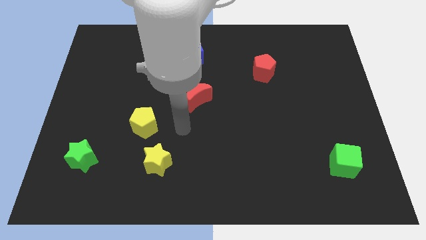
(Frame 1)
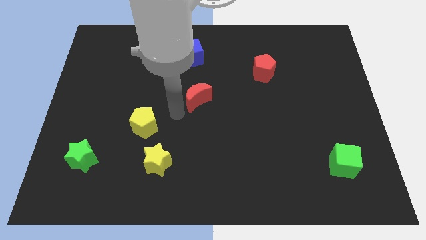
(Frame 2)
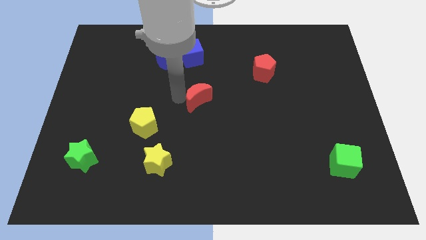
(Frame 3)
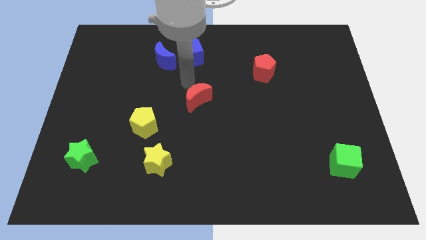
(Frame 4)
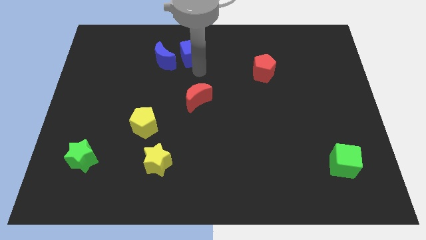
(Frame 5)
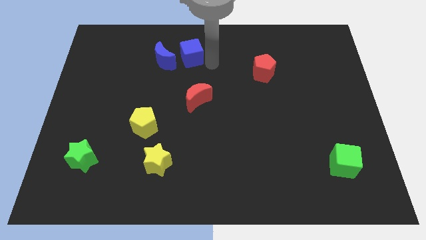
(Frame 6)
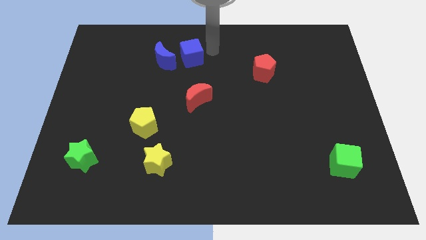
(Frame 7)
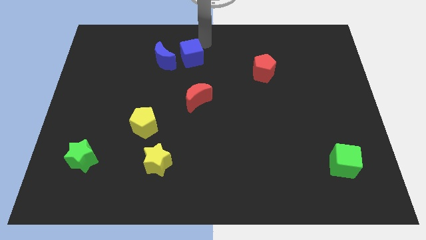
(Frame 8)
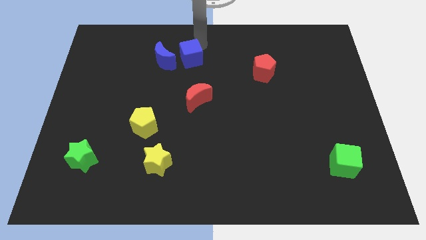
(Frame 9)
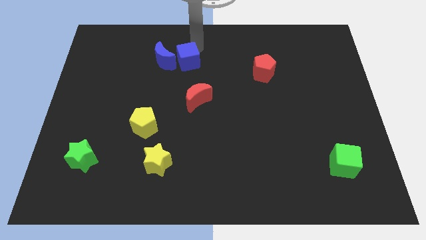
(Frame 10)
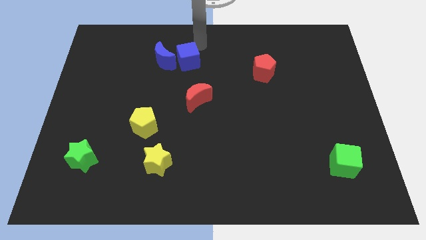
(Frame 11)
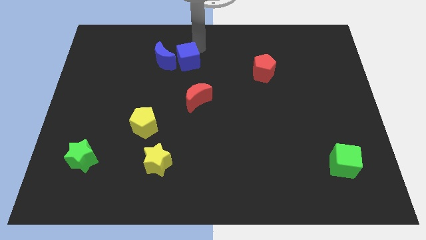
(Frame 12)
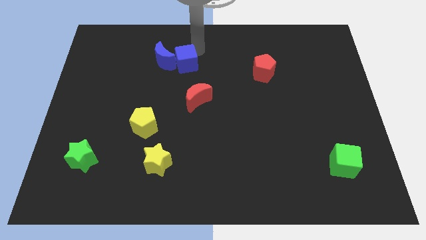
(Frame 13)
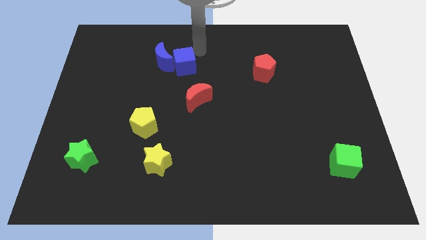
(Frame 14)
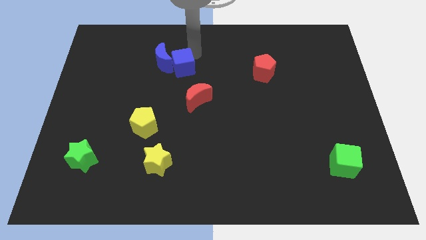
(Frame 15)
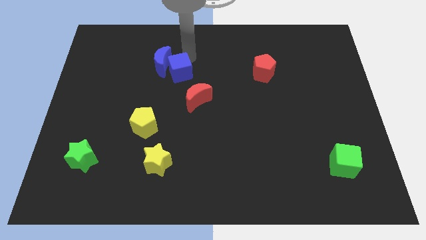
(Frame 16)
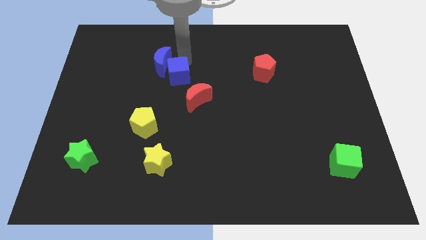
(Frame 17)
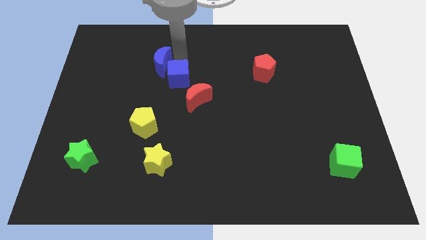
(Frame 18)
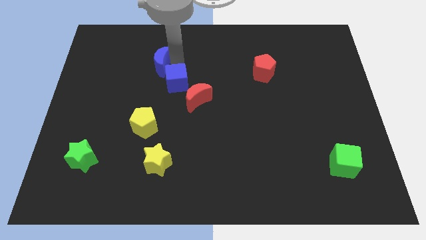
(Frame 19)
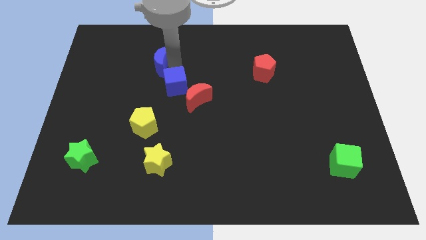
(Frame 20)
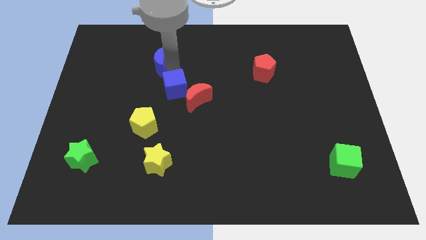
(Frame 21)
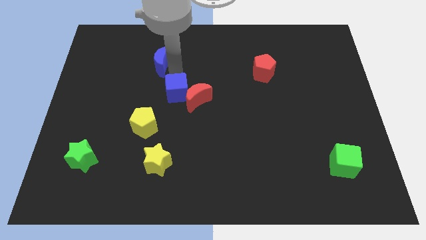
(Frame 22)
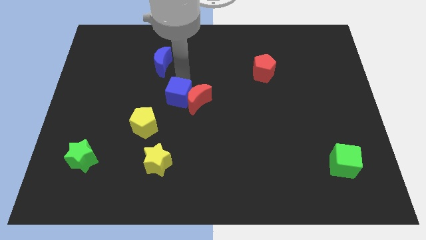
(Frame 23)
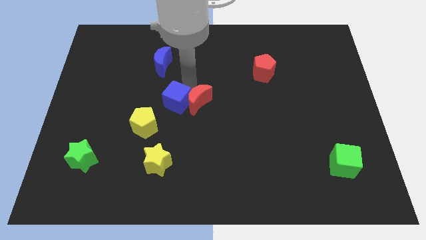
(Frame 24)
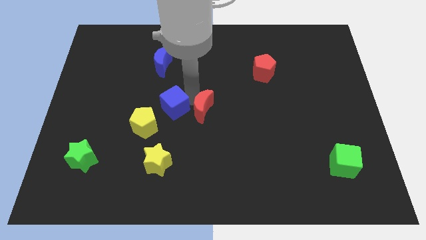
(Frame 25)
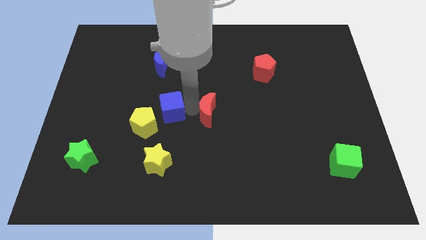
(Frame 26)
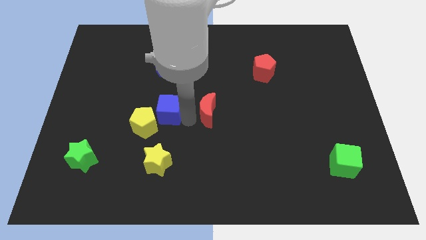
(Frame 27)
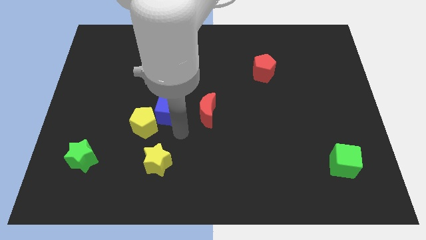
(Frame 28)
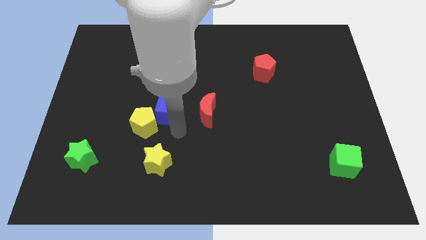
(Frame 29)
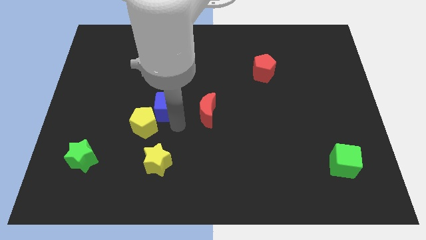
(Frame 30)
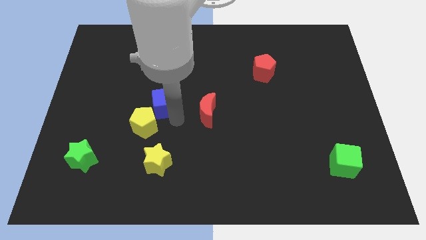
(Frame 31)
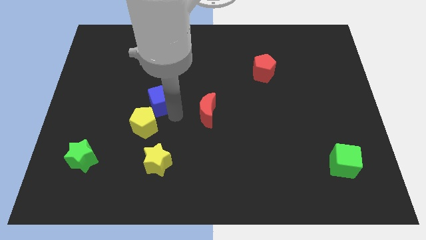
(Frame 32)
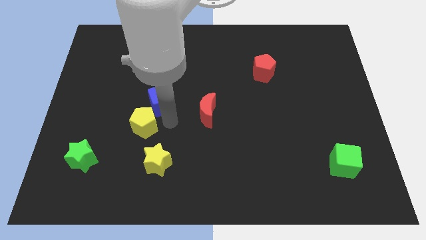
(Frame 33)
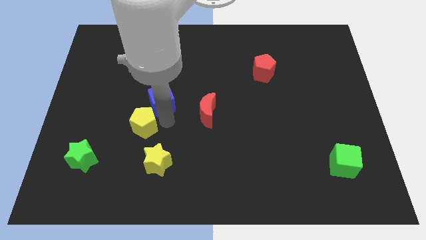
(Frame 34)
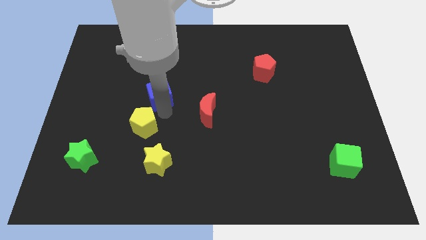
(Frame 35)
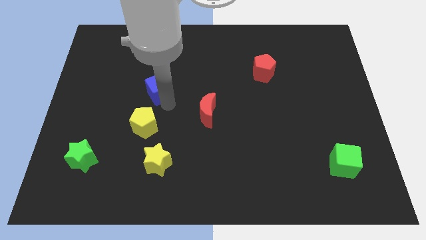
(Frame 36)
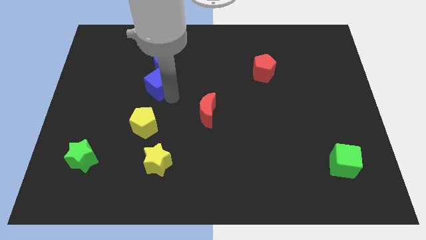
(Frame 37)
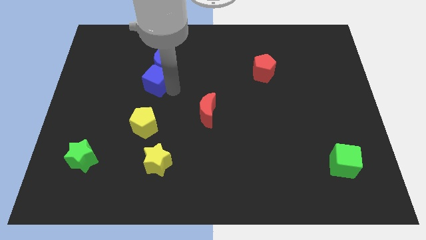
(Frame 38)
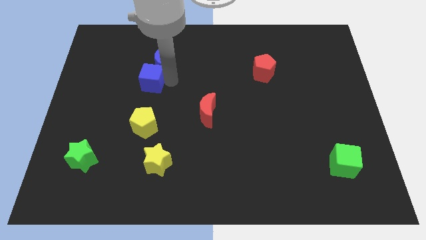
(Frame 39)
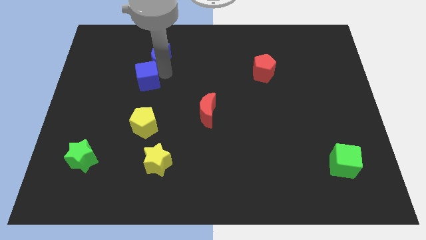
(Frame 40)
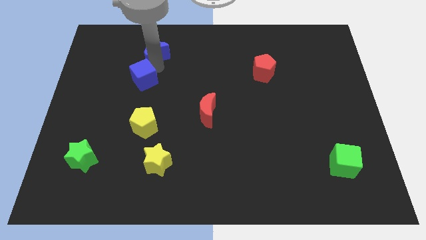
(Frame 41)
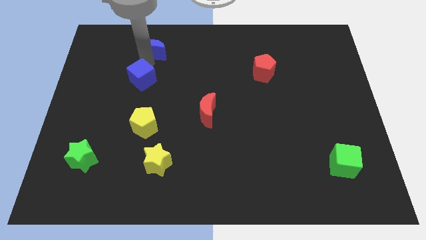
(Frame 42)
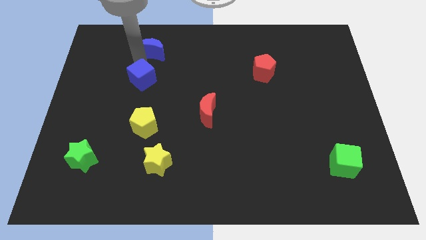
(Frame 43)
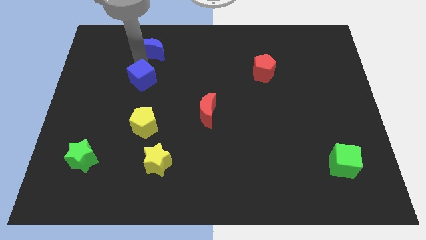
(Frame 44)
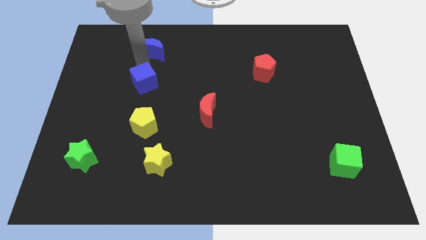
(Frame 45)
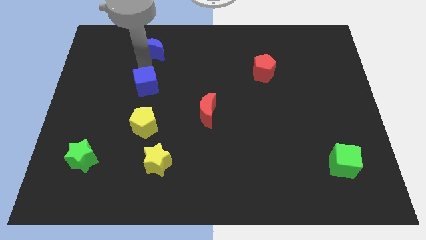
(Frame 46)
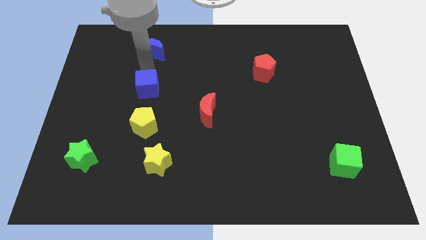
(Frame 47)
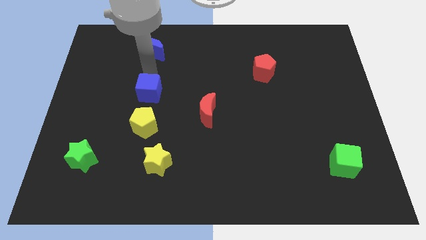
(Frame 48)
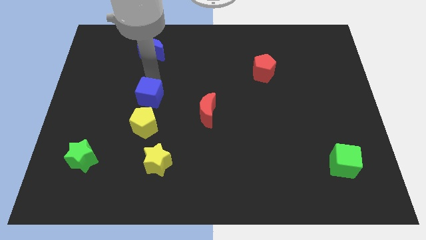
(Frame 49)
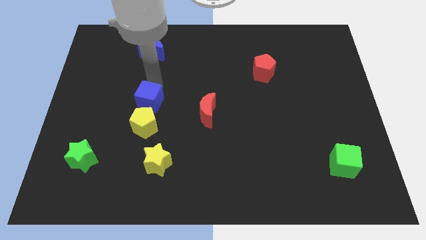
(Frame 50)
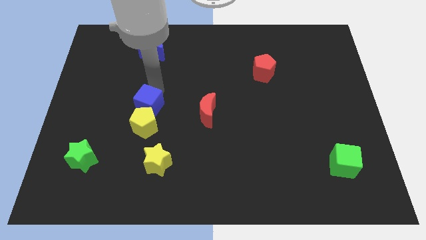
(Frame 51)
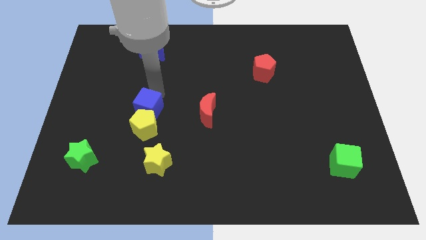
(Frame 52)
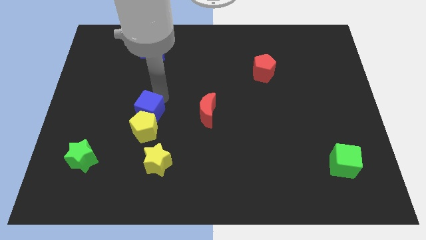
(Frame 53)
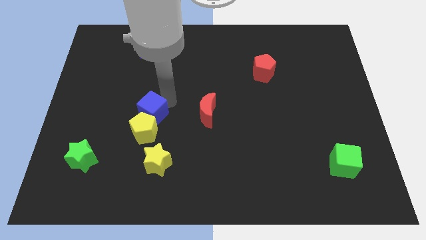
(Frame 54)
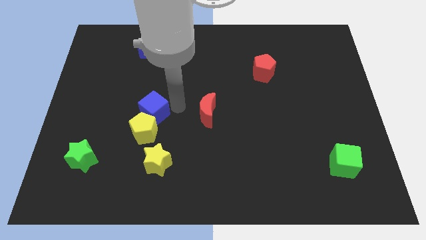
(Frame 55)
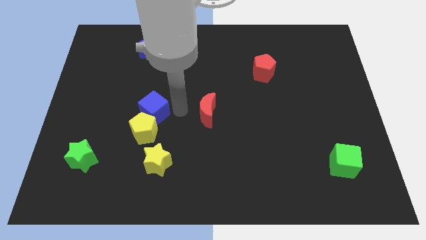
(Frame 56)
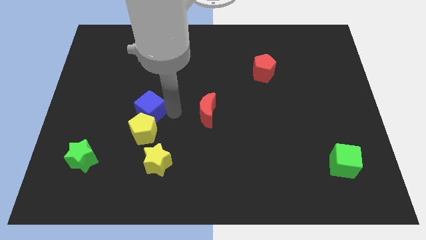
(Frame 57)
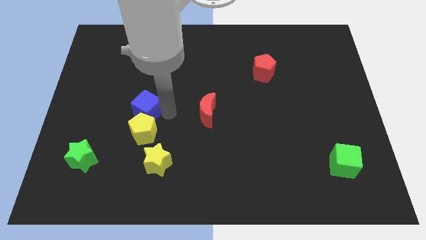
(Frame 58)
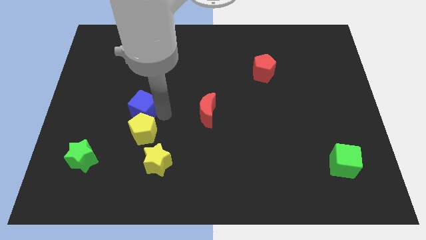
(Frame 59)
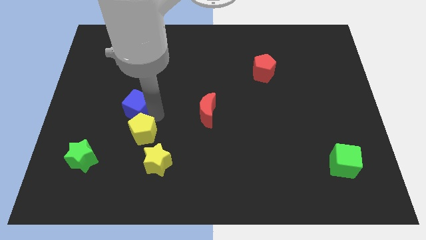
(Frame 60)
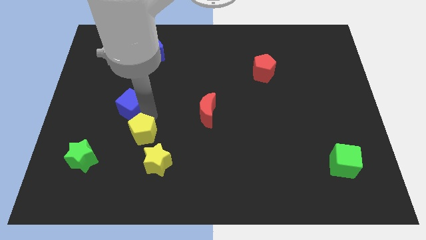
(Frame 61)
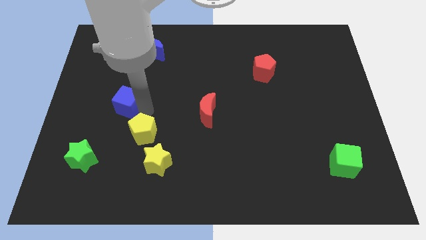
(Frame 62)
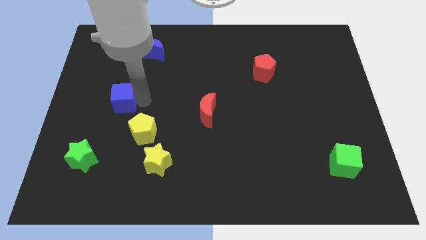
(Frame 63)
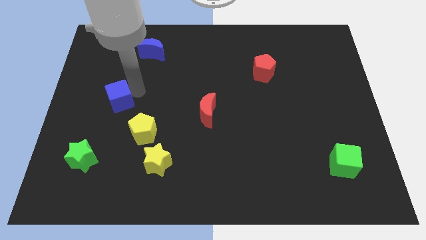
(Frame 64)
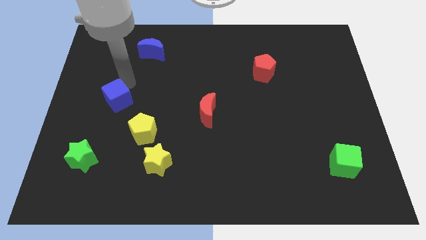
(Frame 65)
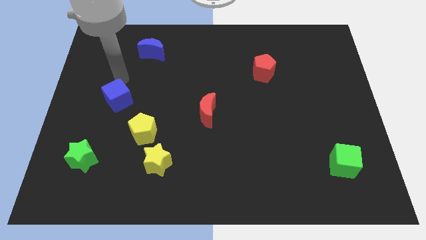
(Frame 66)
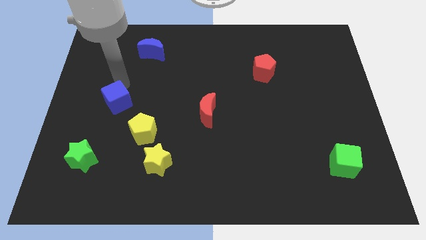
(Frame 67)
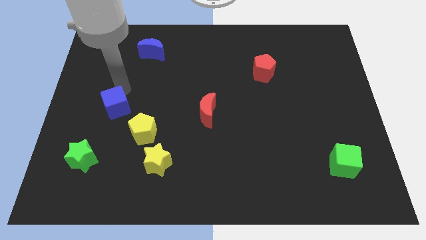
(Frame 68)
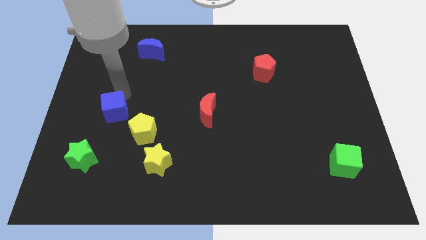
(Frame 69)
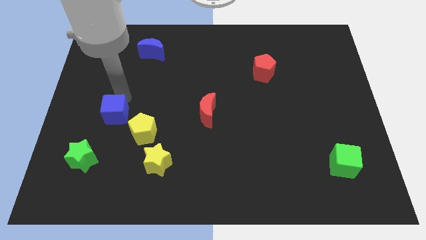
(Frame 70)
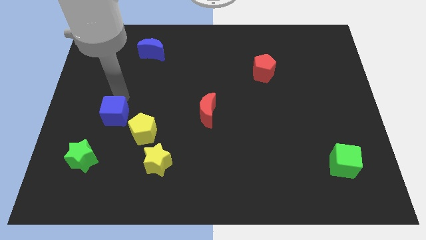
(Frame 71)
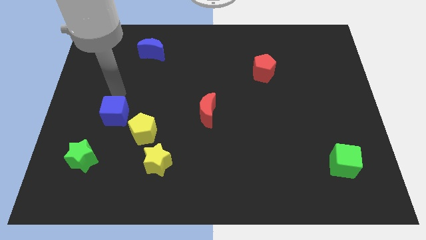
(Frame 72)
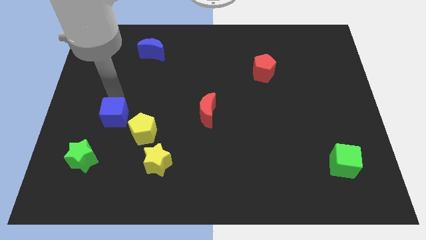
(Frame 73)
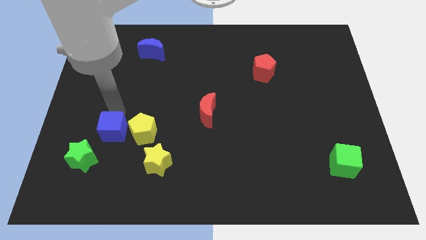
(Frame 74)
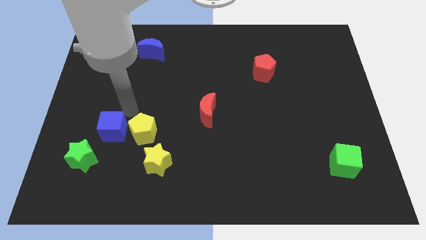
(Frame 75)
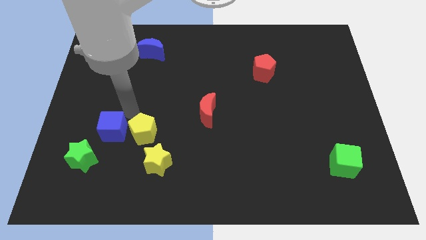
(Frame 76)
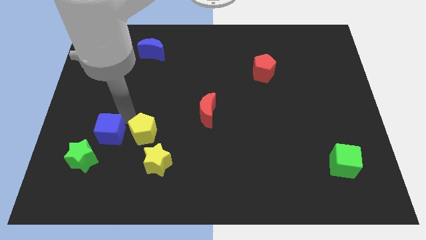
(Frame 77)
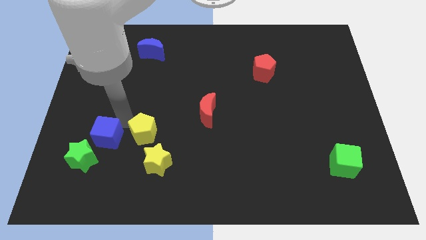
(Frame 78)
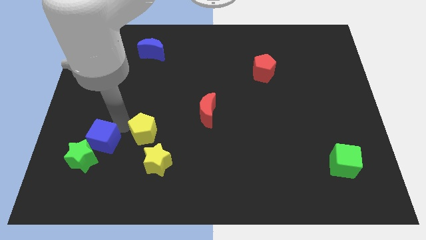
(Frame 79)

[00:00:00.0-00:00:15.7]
slide the blue cube close to the green star
